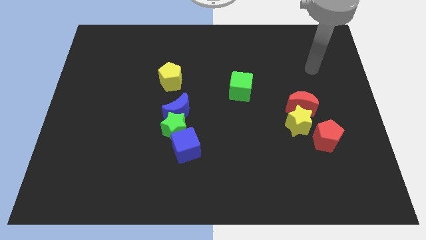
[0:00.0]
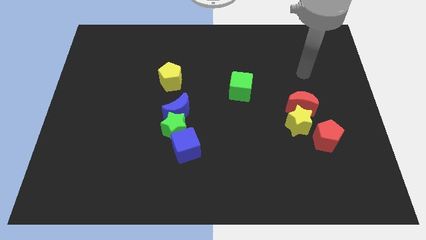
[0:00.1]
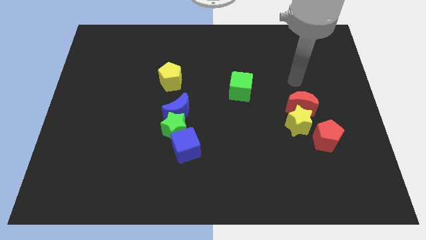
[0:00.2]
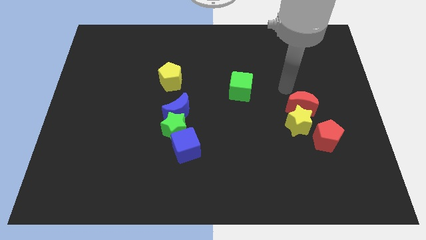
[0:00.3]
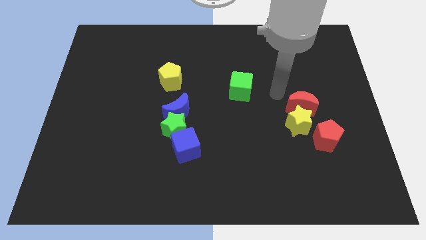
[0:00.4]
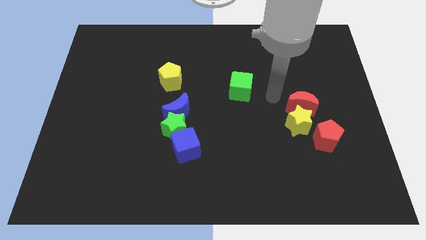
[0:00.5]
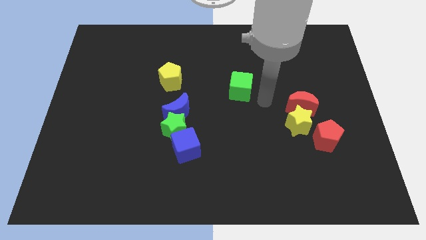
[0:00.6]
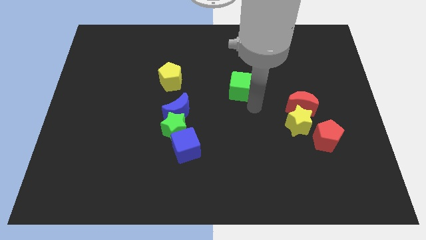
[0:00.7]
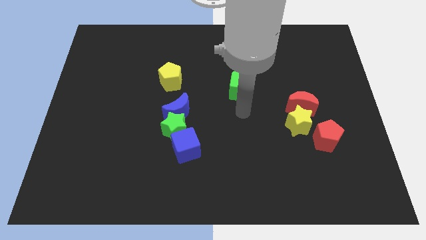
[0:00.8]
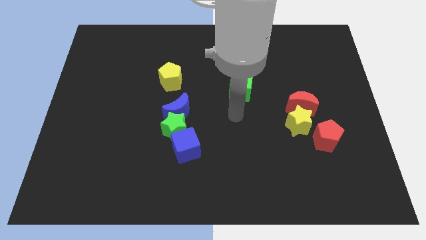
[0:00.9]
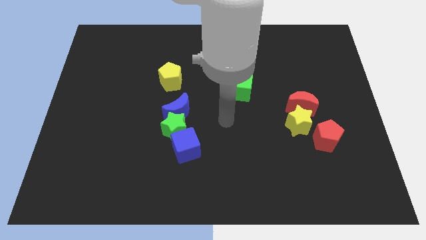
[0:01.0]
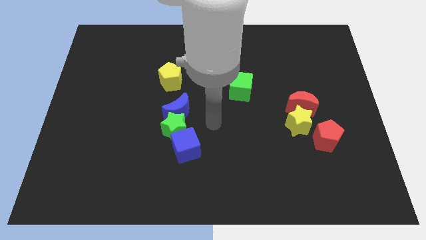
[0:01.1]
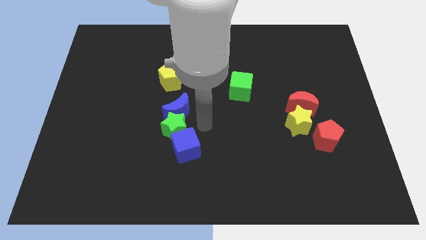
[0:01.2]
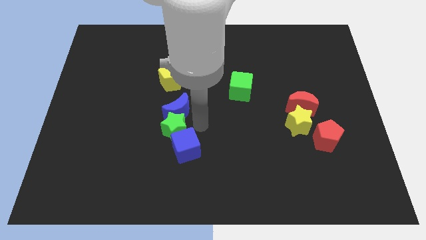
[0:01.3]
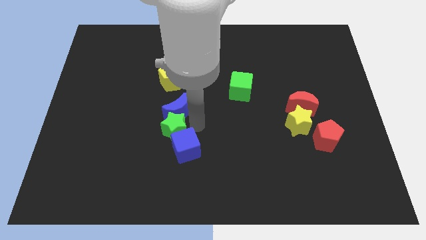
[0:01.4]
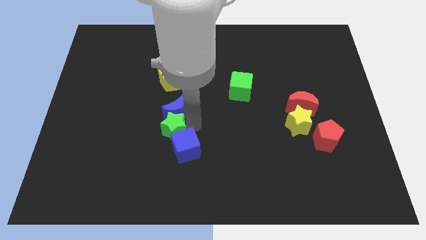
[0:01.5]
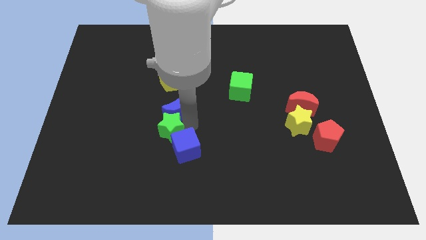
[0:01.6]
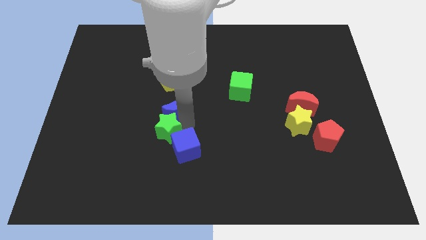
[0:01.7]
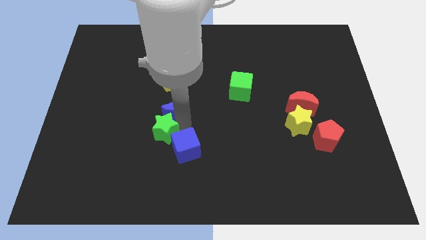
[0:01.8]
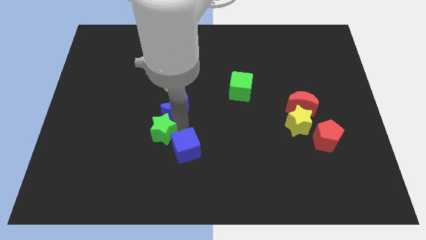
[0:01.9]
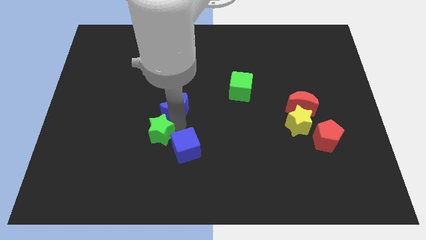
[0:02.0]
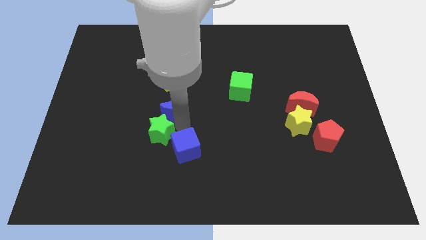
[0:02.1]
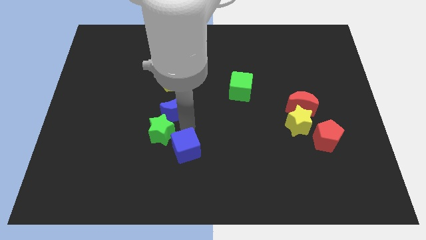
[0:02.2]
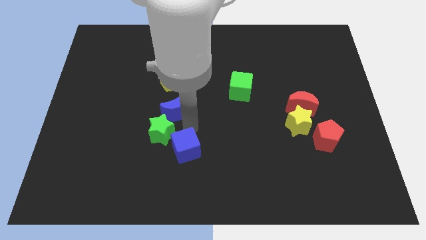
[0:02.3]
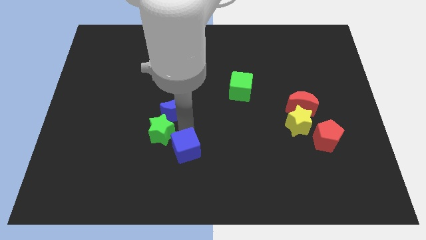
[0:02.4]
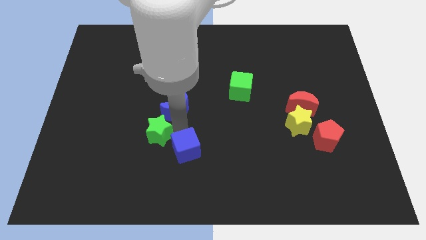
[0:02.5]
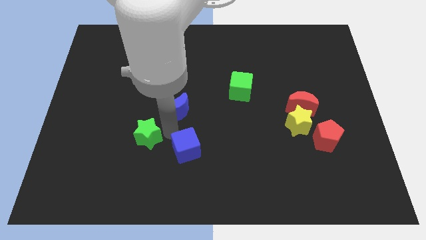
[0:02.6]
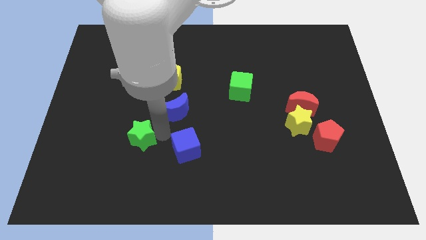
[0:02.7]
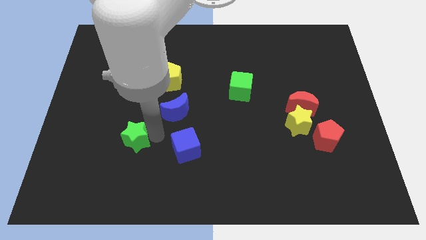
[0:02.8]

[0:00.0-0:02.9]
pull the green star apart from the blue moon and blue cube

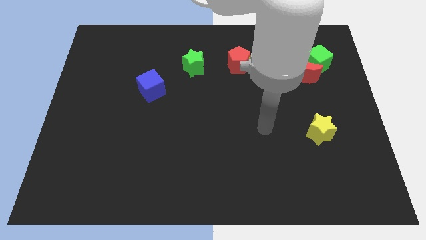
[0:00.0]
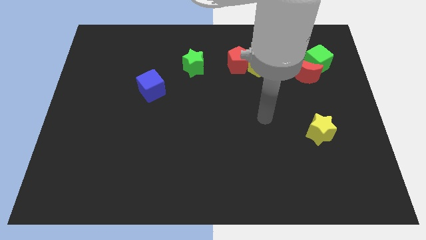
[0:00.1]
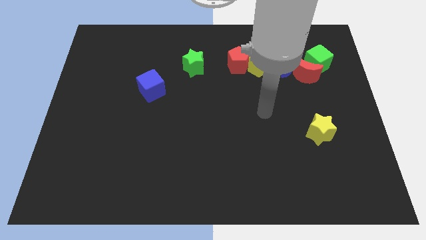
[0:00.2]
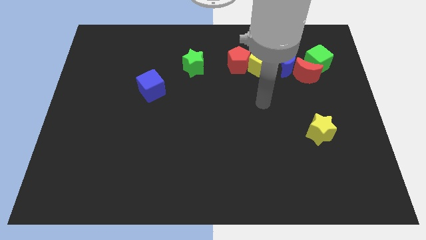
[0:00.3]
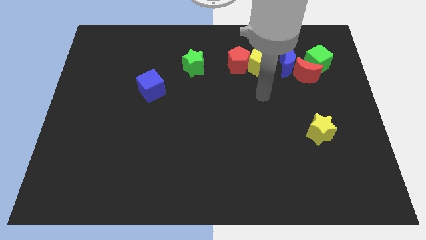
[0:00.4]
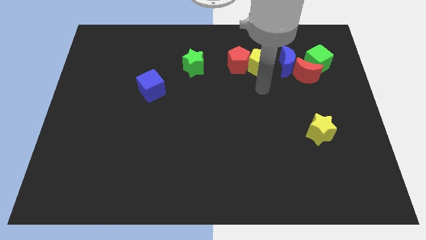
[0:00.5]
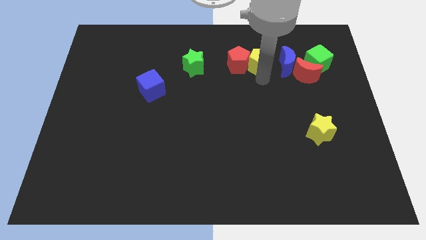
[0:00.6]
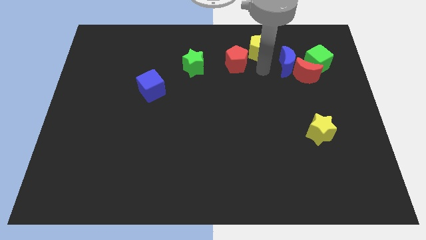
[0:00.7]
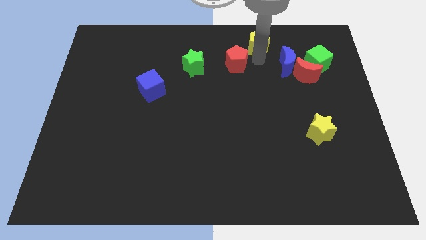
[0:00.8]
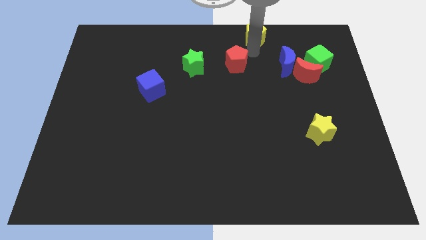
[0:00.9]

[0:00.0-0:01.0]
separate the red pentagon from the yellow pentagon

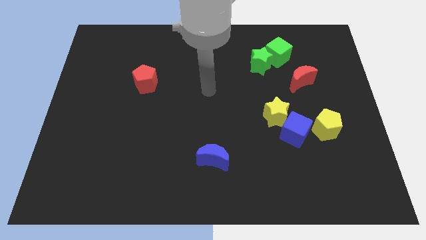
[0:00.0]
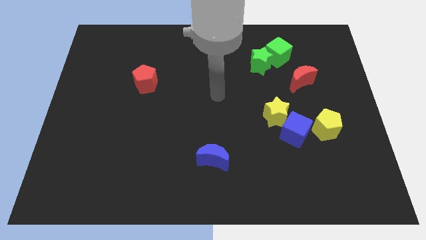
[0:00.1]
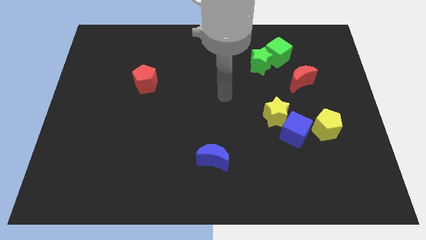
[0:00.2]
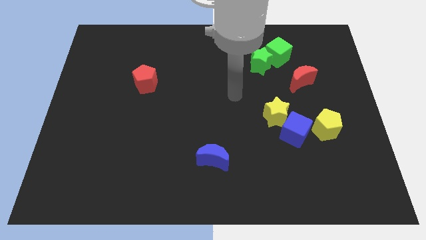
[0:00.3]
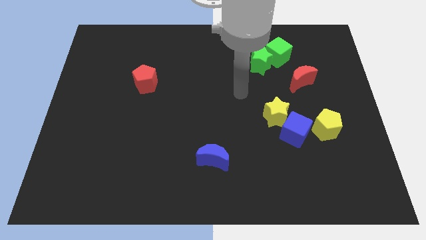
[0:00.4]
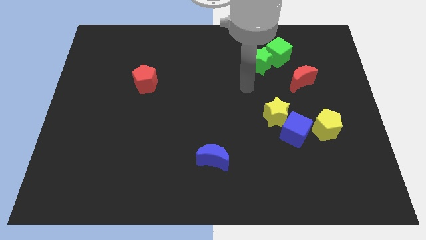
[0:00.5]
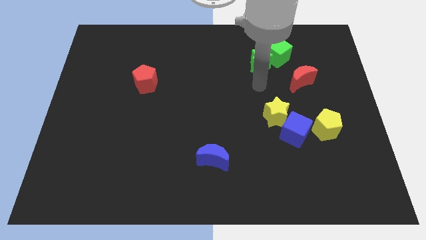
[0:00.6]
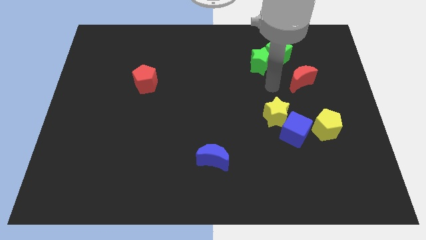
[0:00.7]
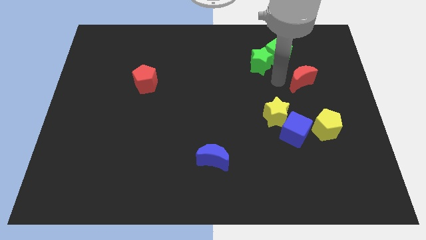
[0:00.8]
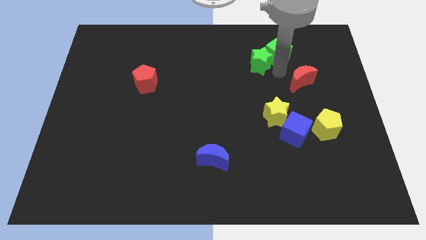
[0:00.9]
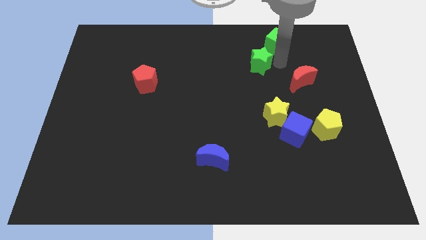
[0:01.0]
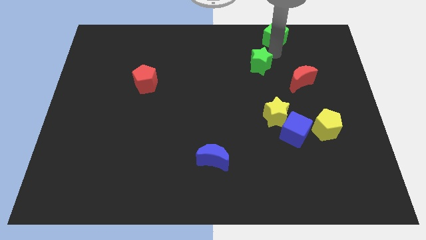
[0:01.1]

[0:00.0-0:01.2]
pull the green star apart from the green cube

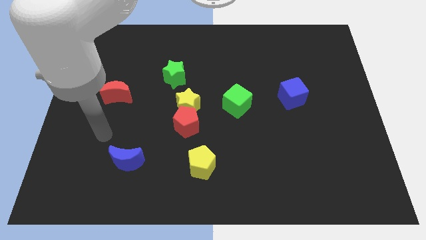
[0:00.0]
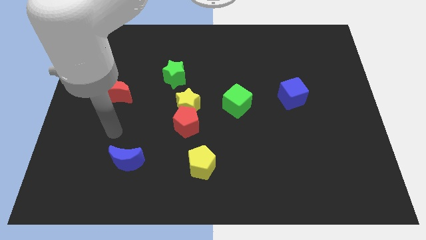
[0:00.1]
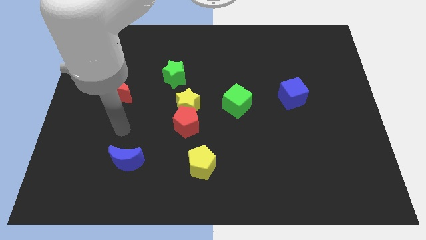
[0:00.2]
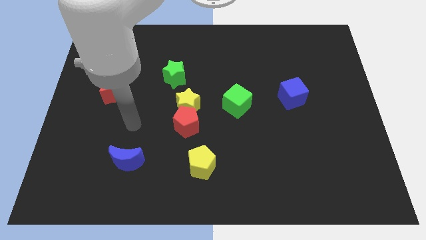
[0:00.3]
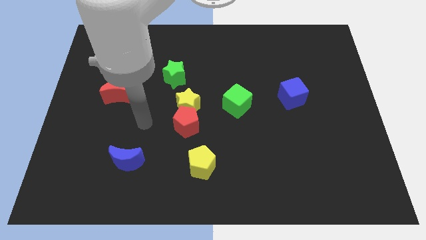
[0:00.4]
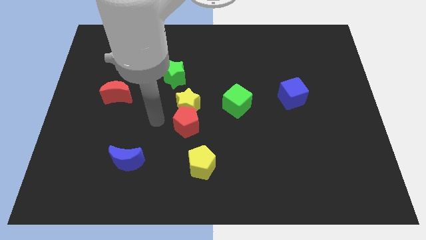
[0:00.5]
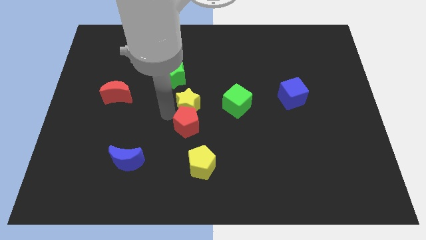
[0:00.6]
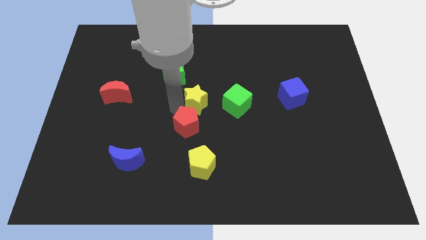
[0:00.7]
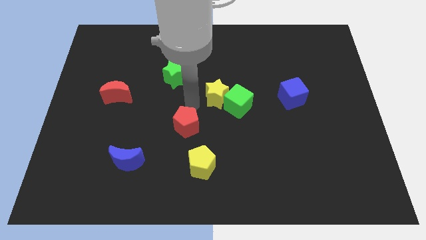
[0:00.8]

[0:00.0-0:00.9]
move the red pentagon away from the yellow star

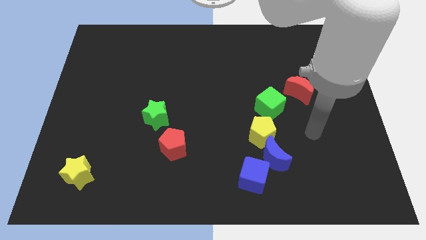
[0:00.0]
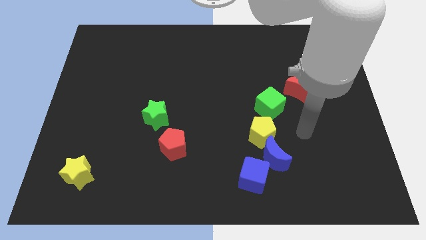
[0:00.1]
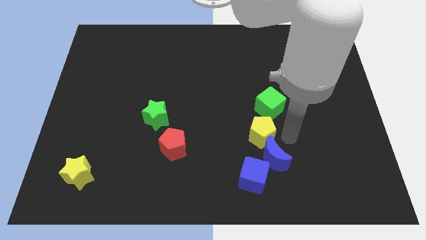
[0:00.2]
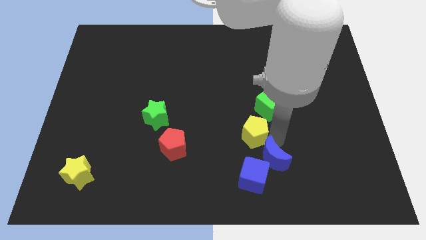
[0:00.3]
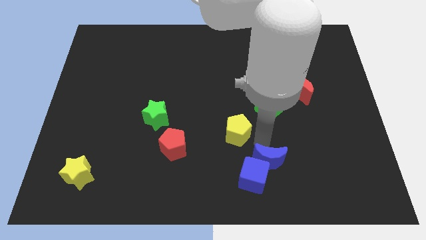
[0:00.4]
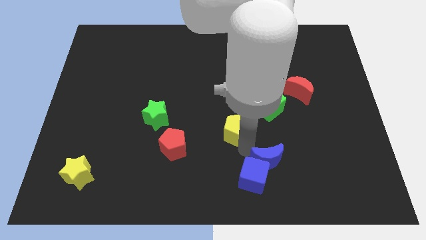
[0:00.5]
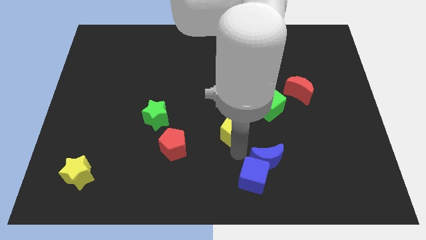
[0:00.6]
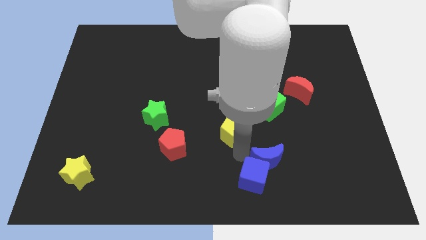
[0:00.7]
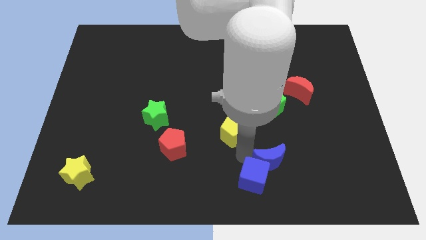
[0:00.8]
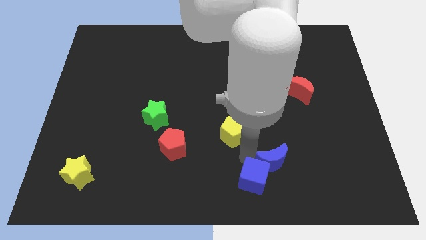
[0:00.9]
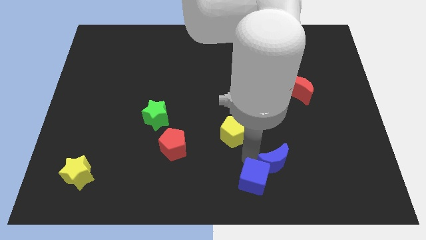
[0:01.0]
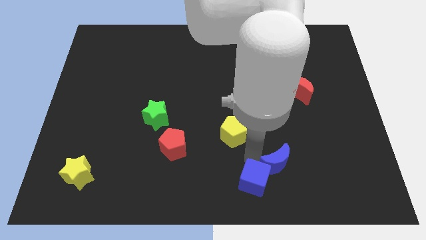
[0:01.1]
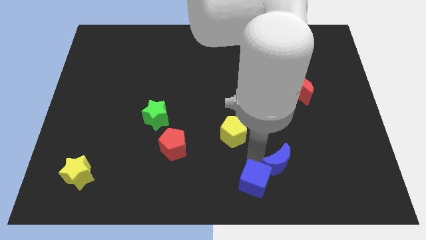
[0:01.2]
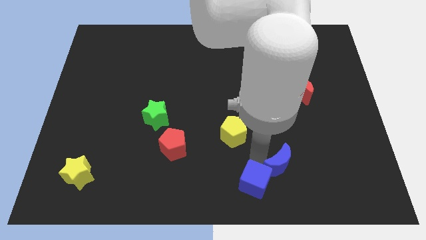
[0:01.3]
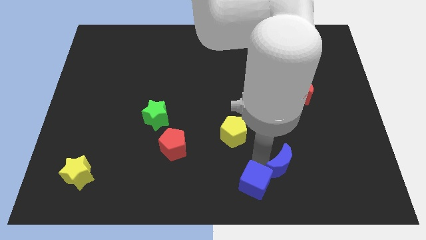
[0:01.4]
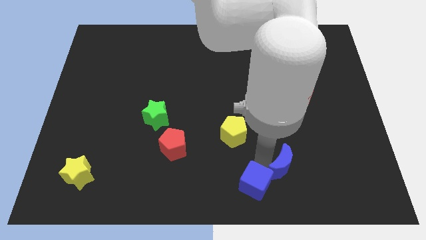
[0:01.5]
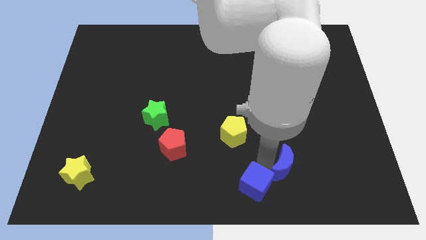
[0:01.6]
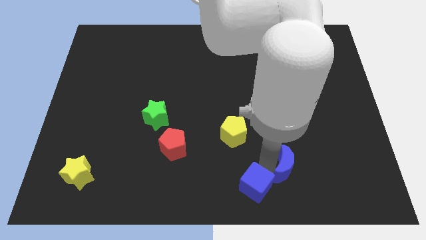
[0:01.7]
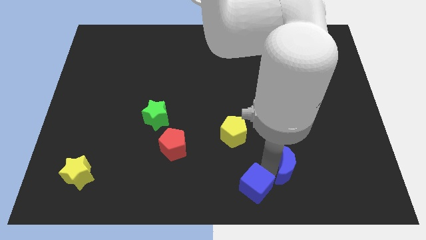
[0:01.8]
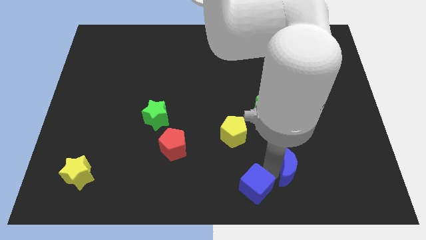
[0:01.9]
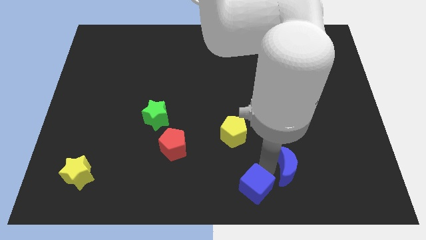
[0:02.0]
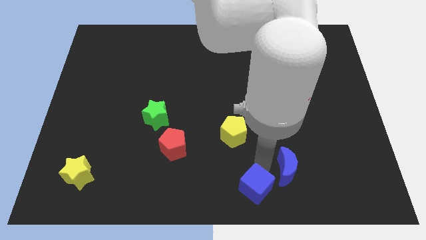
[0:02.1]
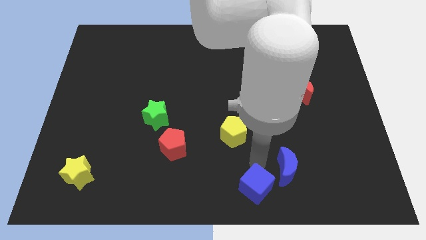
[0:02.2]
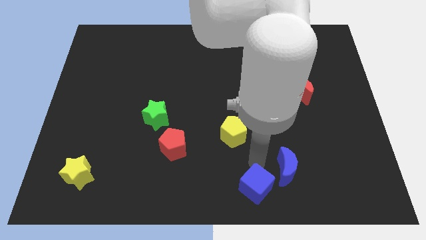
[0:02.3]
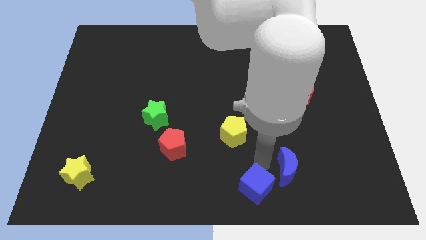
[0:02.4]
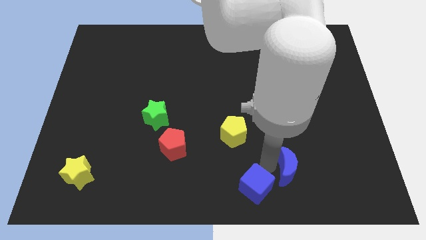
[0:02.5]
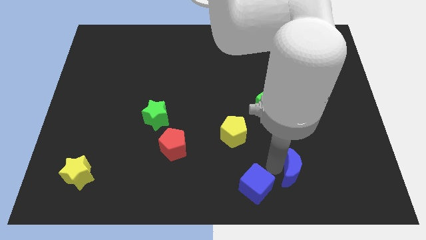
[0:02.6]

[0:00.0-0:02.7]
move the blue moon away from the yellow pentagon and blue cube

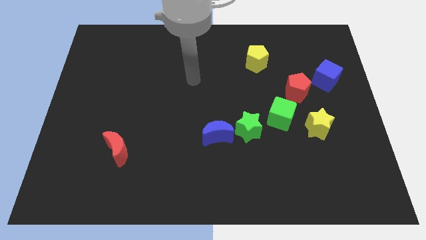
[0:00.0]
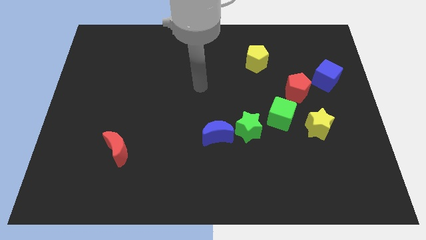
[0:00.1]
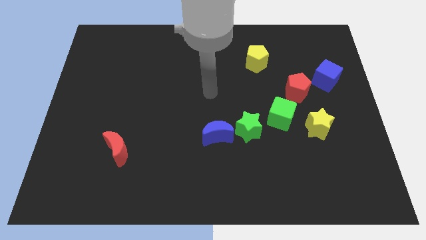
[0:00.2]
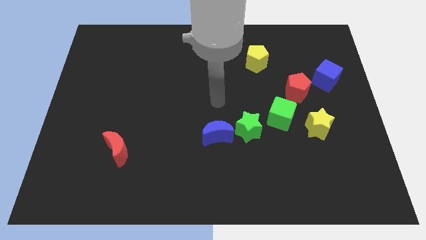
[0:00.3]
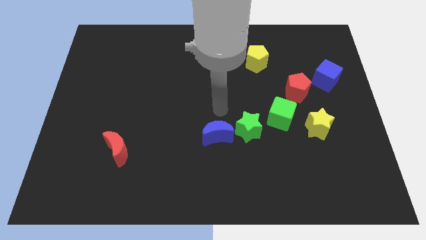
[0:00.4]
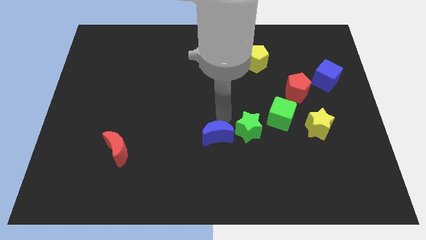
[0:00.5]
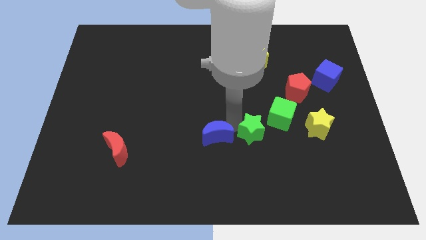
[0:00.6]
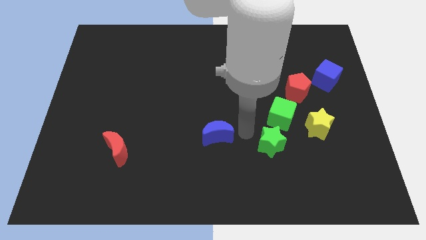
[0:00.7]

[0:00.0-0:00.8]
pull the blue moon apart from the green star
